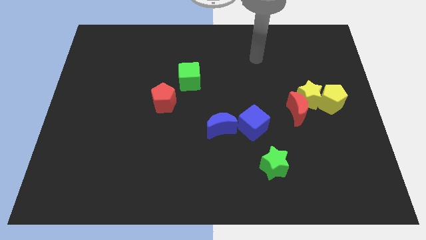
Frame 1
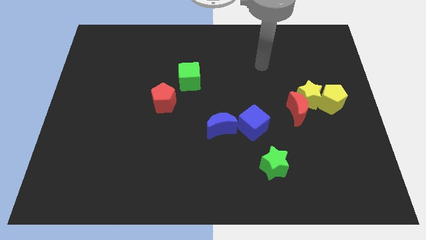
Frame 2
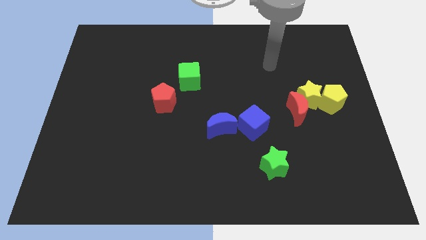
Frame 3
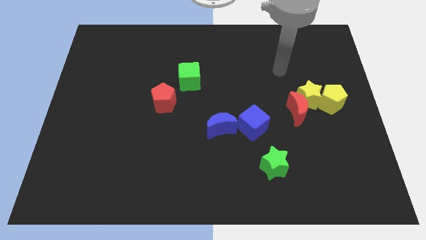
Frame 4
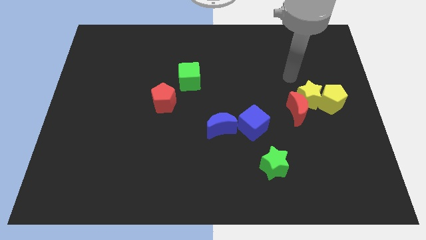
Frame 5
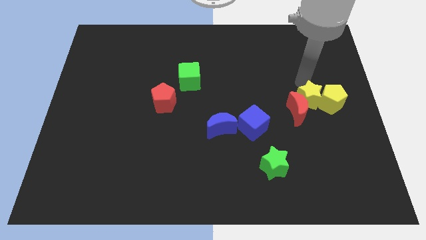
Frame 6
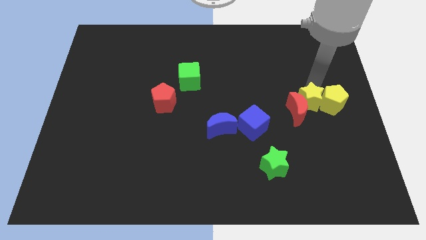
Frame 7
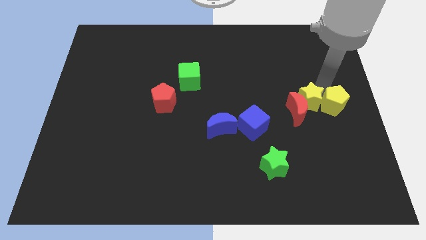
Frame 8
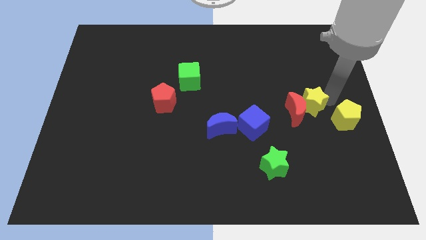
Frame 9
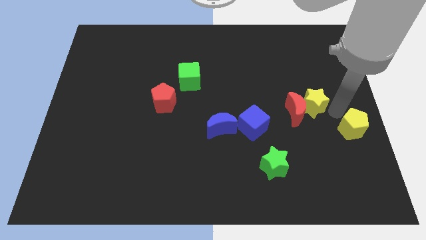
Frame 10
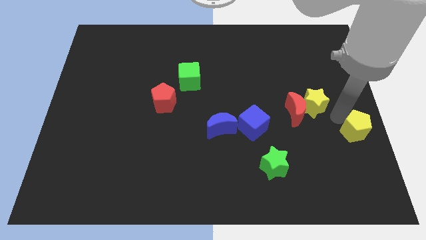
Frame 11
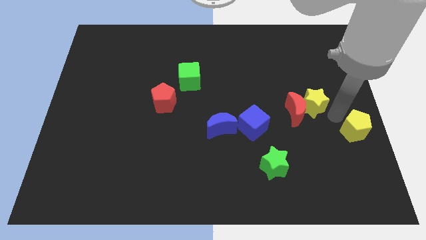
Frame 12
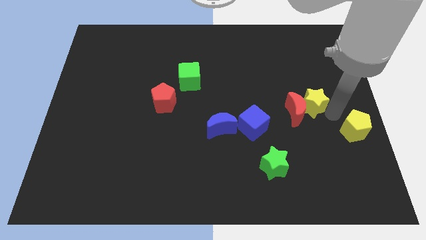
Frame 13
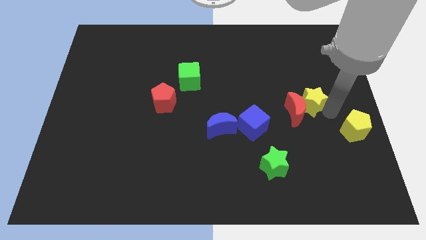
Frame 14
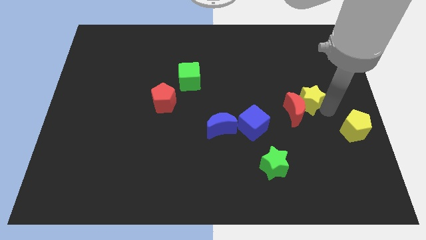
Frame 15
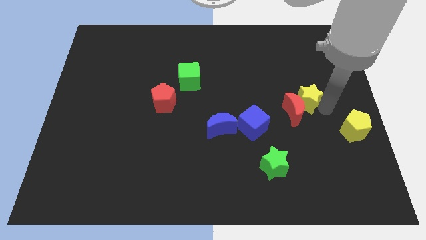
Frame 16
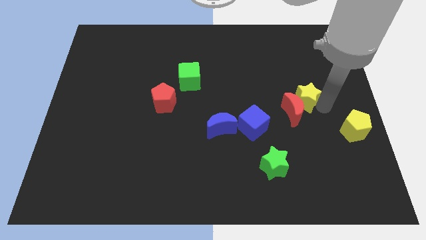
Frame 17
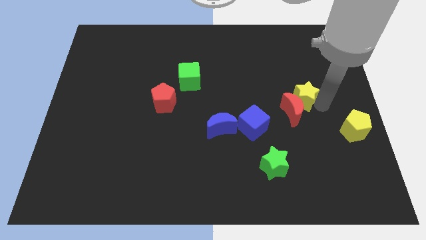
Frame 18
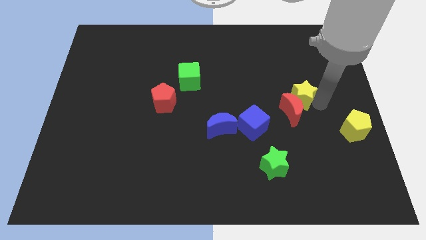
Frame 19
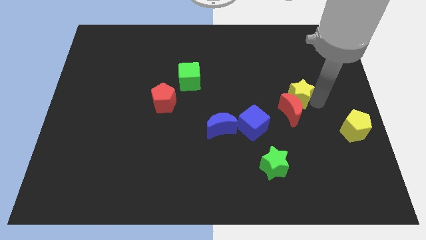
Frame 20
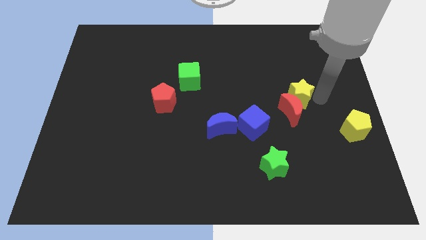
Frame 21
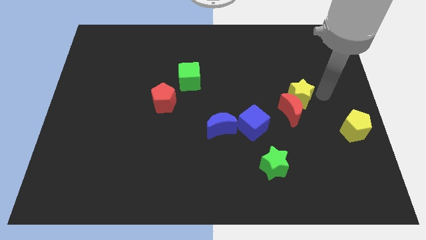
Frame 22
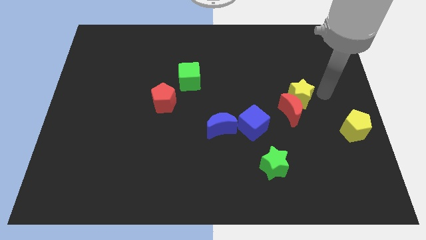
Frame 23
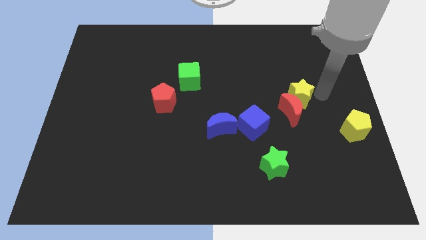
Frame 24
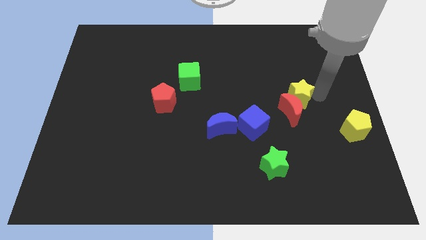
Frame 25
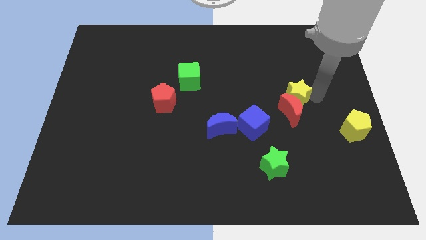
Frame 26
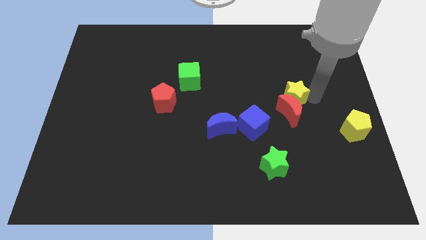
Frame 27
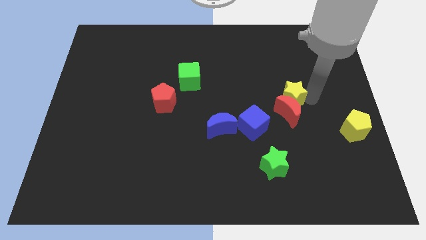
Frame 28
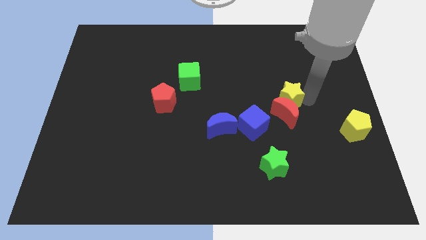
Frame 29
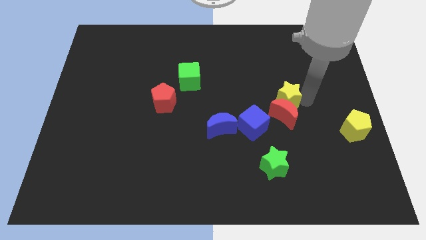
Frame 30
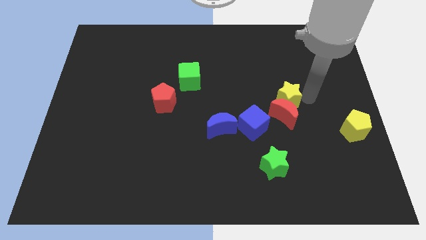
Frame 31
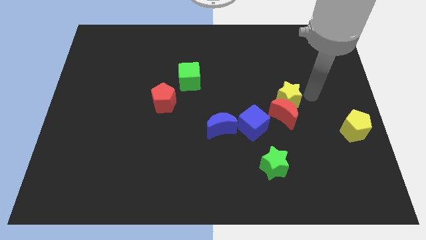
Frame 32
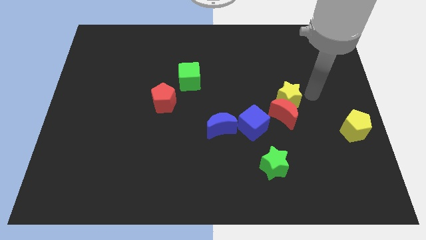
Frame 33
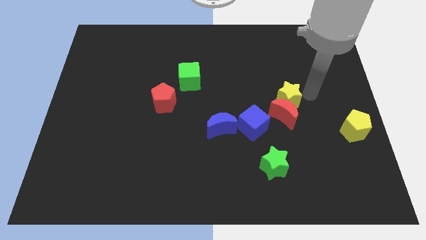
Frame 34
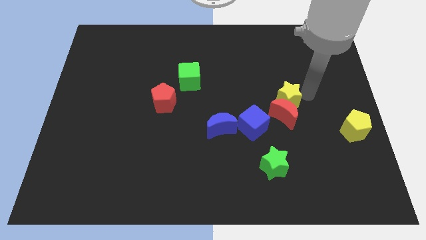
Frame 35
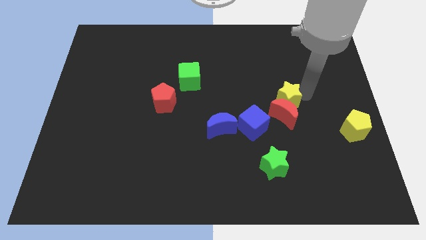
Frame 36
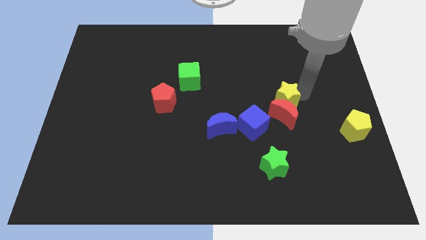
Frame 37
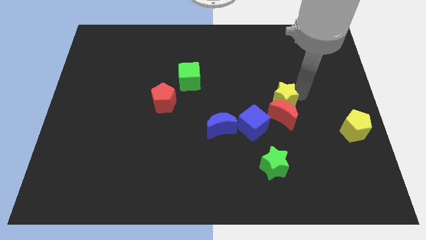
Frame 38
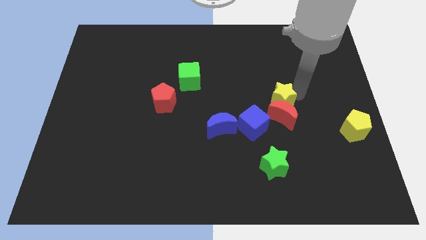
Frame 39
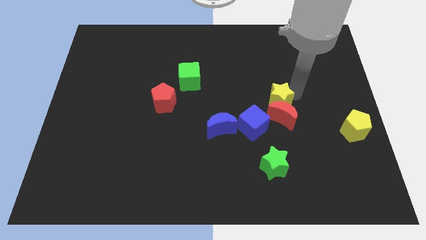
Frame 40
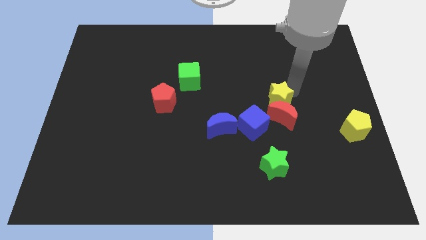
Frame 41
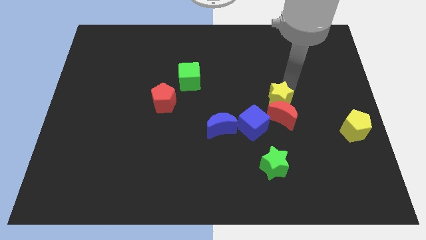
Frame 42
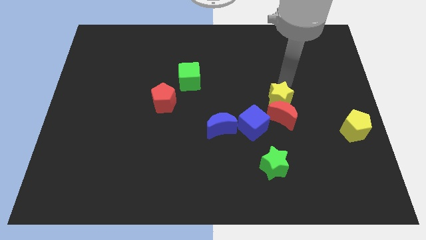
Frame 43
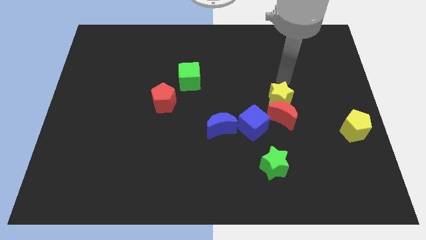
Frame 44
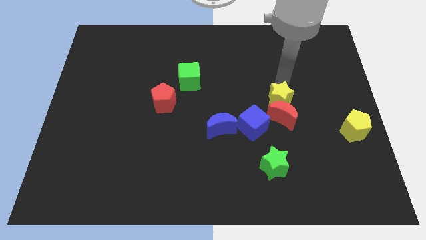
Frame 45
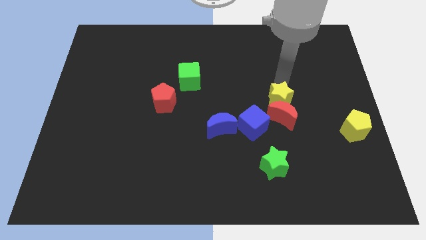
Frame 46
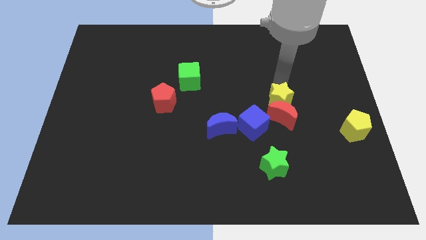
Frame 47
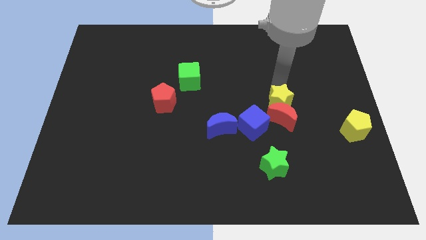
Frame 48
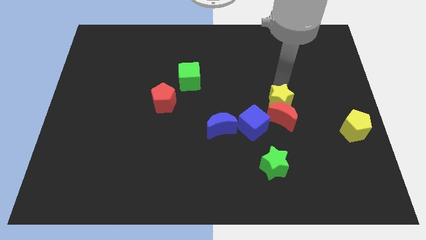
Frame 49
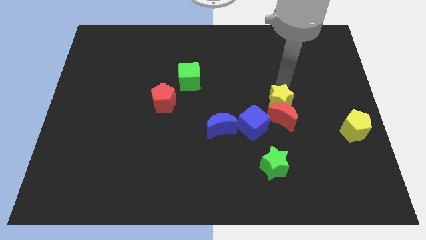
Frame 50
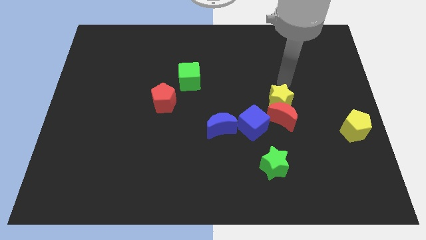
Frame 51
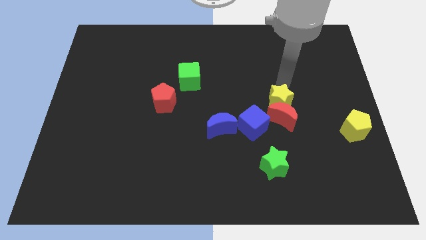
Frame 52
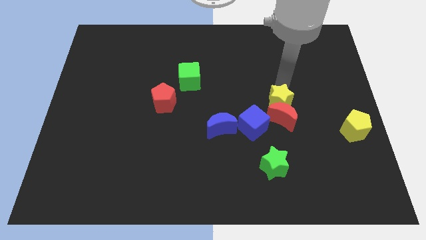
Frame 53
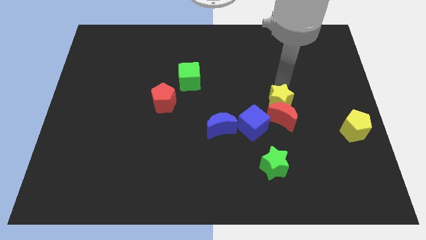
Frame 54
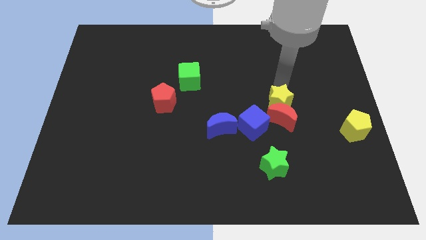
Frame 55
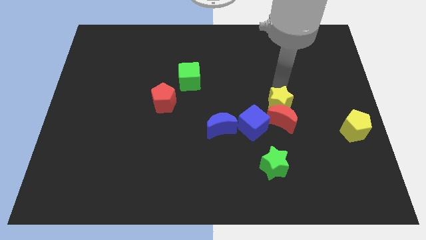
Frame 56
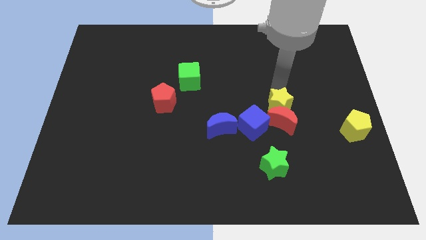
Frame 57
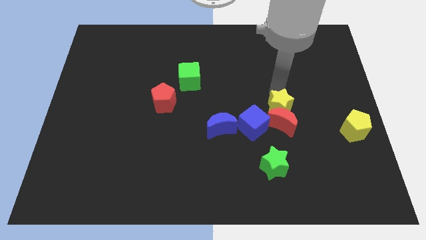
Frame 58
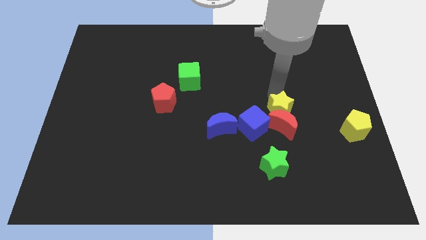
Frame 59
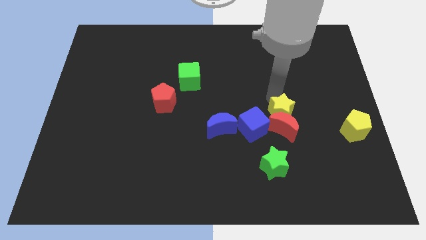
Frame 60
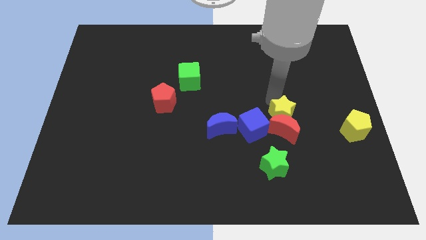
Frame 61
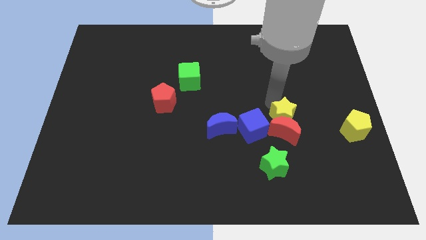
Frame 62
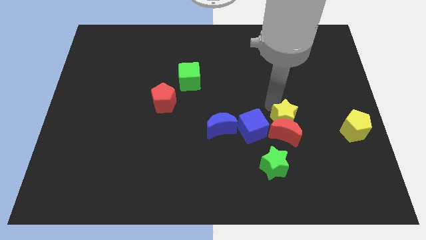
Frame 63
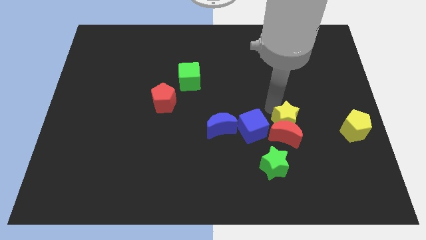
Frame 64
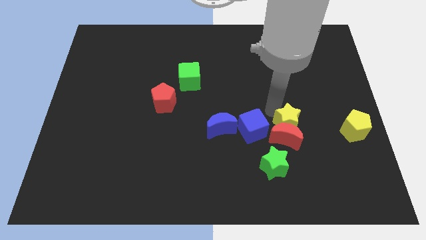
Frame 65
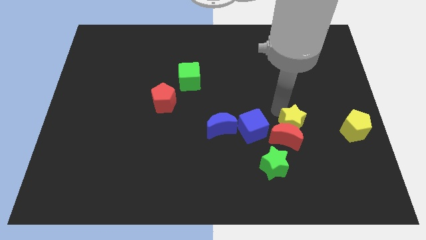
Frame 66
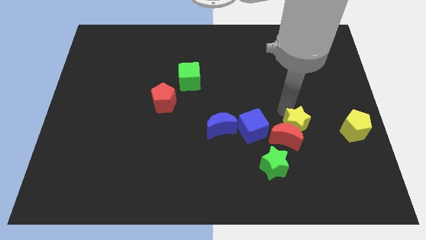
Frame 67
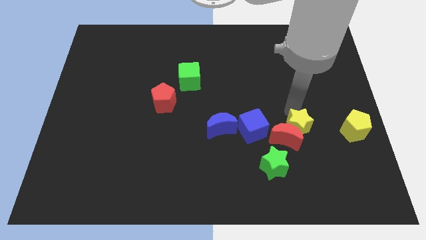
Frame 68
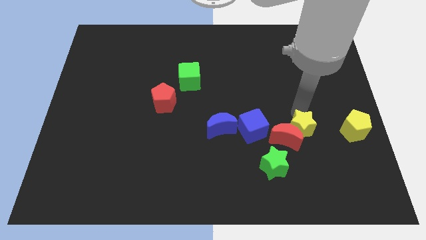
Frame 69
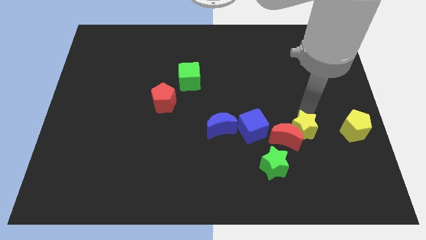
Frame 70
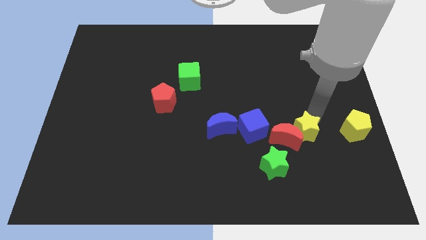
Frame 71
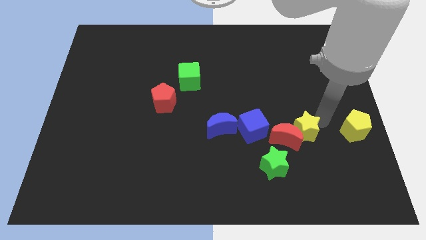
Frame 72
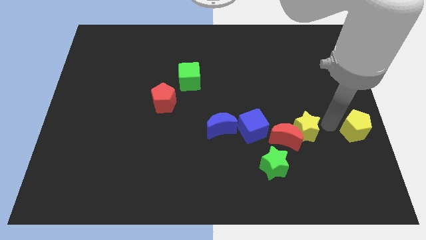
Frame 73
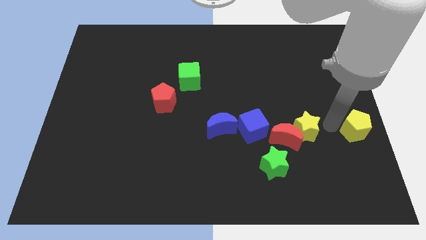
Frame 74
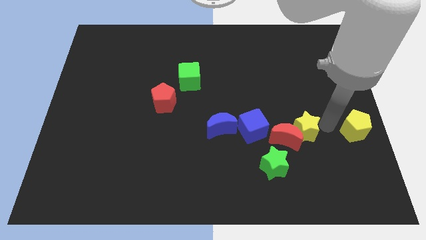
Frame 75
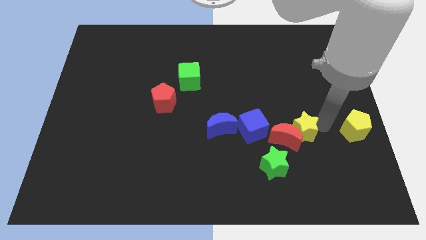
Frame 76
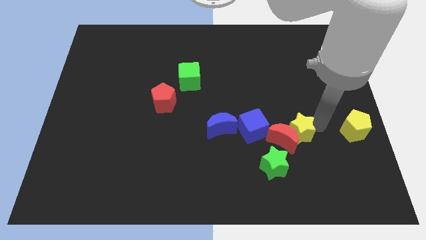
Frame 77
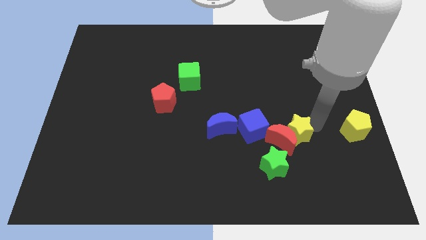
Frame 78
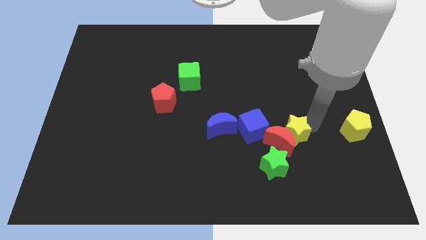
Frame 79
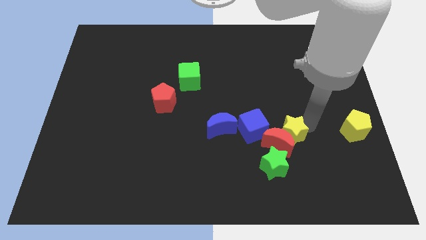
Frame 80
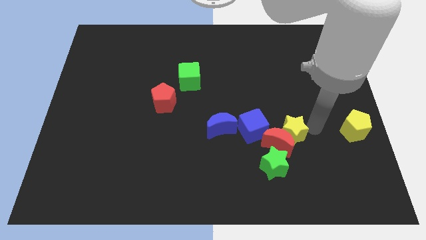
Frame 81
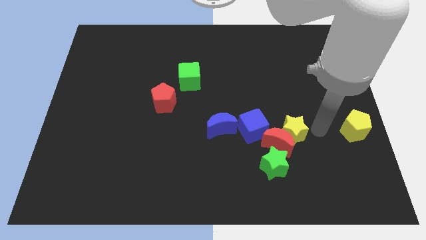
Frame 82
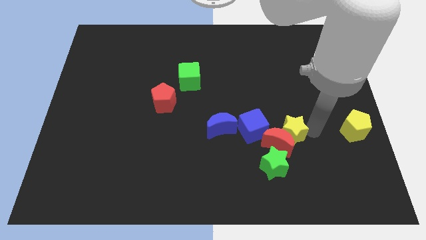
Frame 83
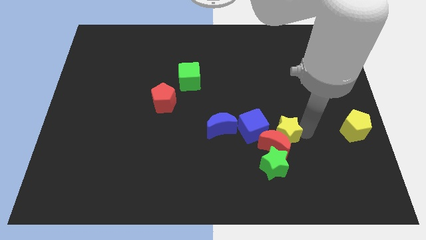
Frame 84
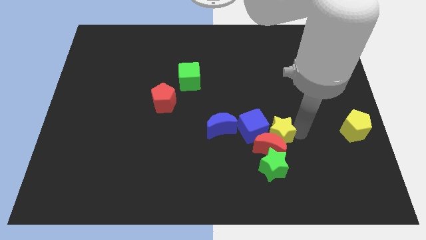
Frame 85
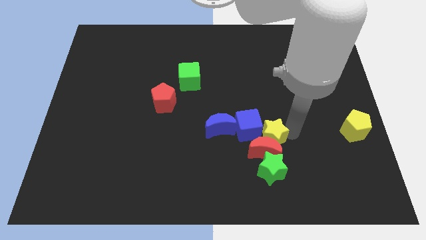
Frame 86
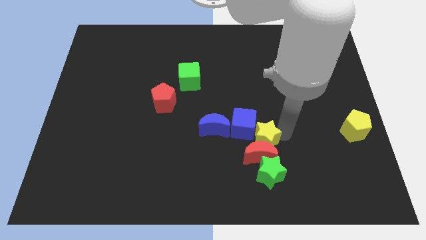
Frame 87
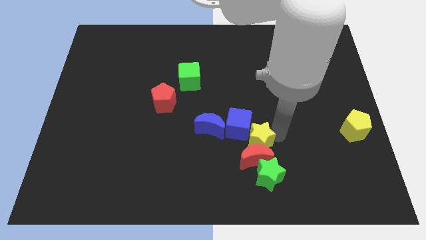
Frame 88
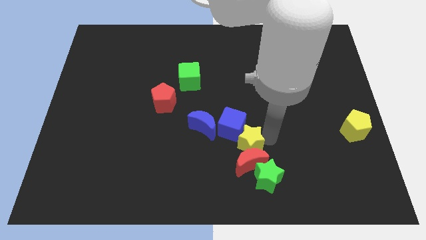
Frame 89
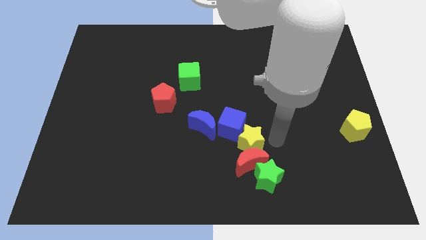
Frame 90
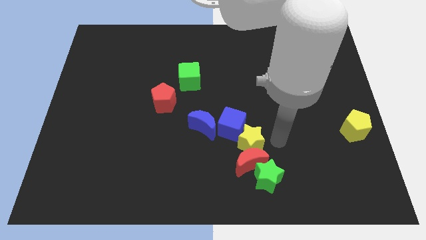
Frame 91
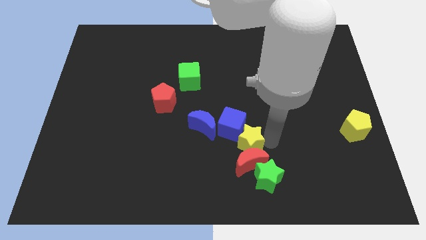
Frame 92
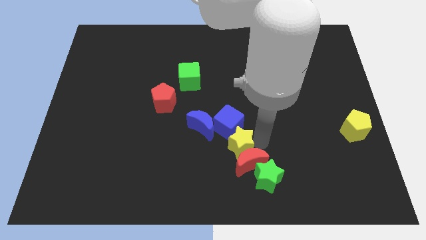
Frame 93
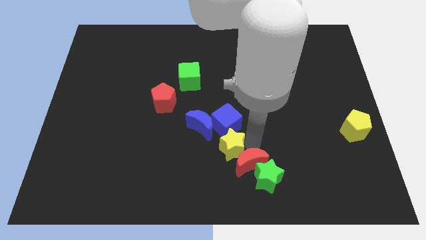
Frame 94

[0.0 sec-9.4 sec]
put the yellow star diagonally down and to the left of the blue cube
